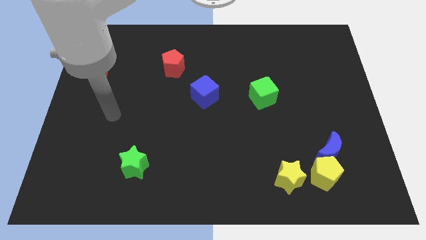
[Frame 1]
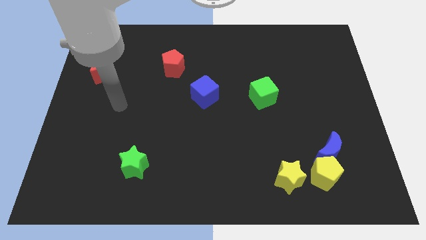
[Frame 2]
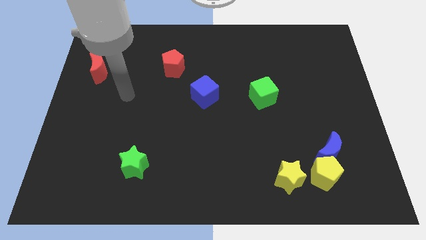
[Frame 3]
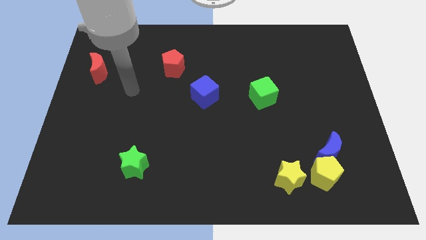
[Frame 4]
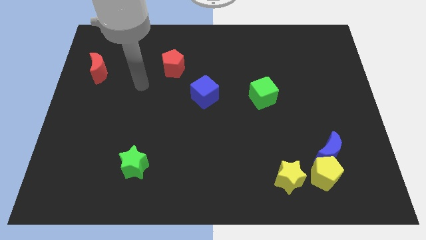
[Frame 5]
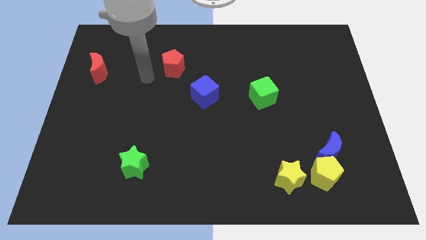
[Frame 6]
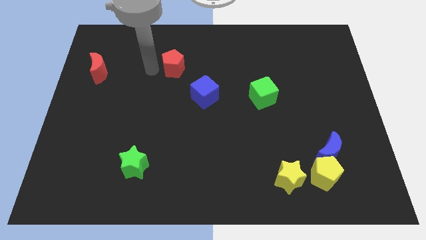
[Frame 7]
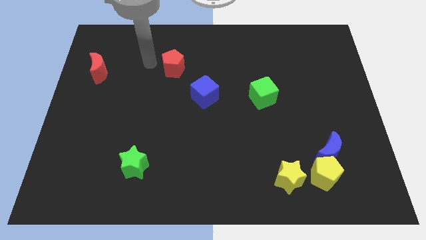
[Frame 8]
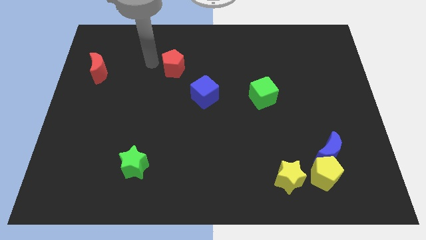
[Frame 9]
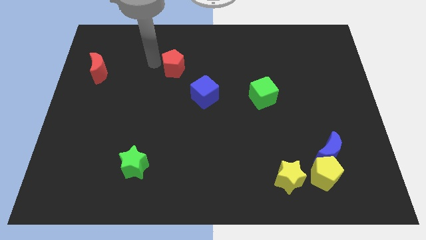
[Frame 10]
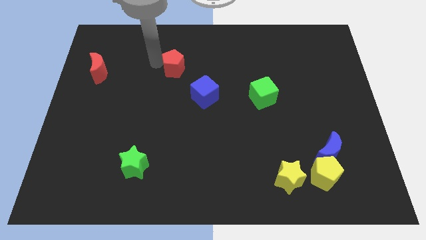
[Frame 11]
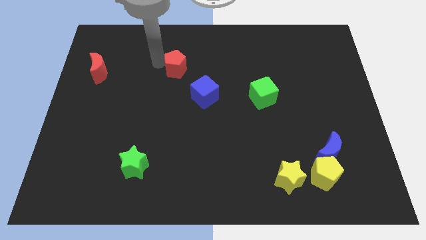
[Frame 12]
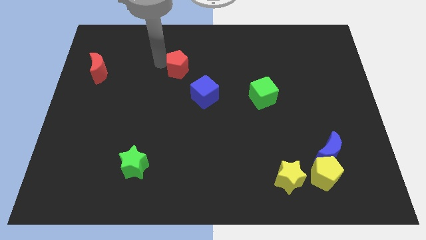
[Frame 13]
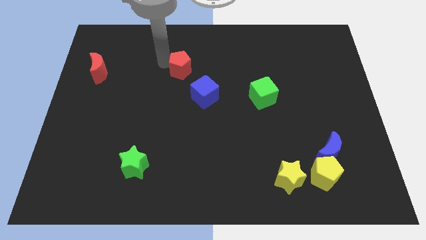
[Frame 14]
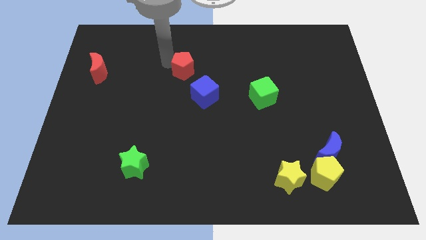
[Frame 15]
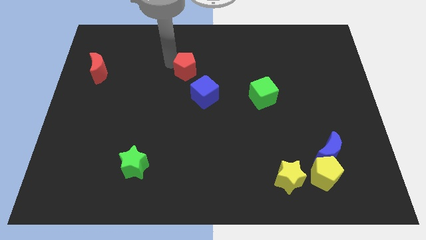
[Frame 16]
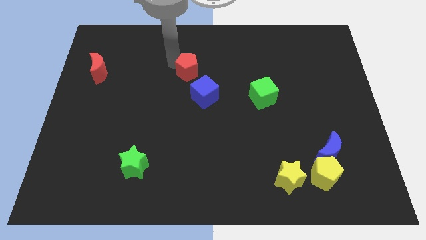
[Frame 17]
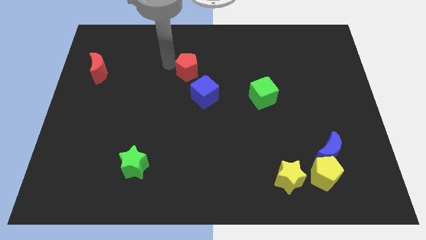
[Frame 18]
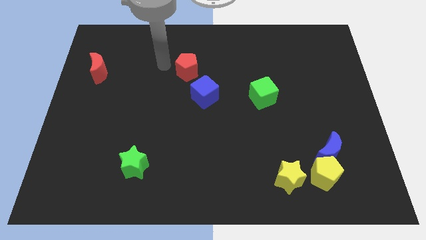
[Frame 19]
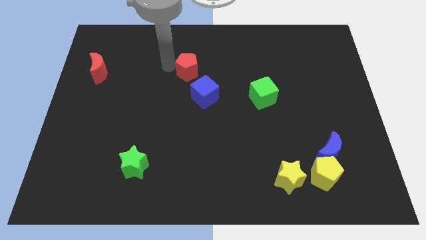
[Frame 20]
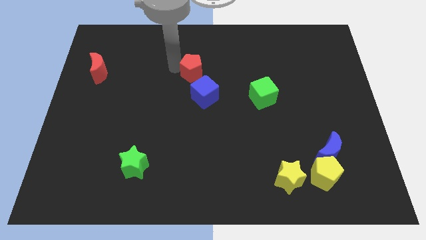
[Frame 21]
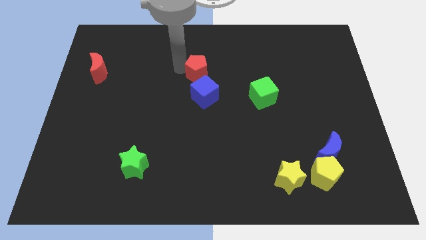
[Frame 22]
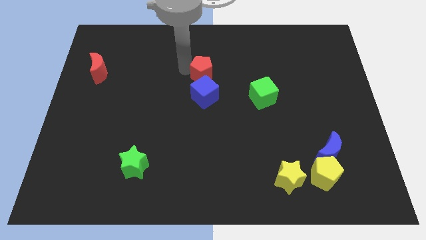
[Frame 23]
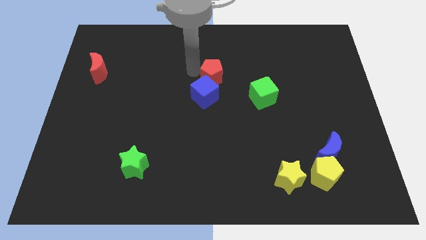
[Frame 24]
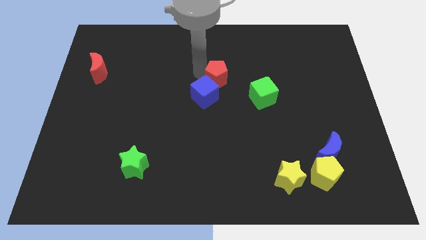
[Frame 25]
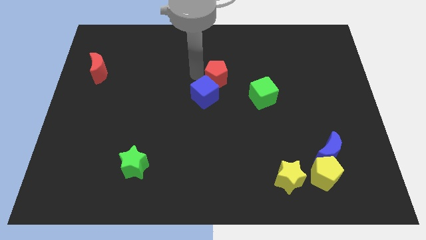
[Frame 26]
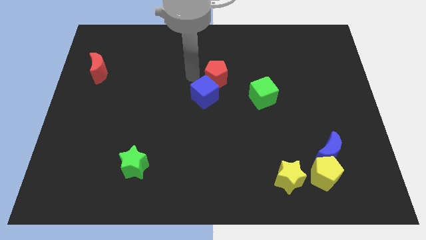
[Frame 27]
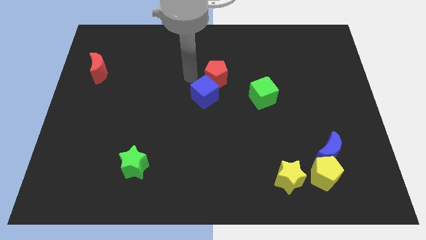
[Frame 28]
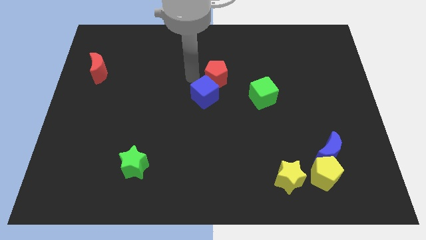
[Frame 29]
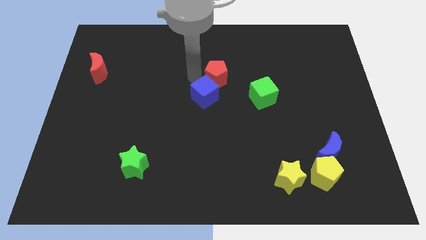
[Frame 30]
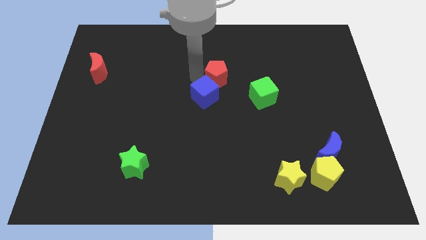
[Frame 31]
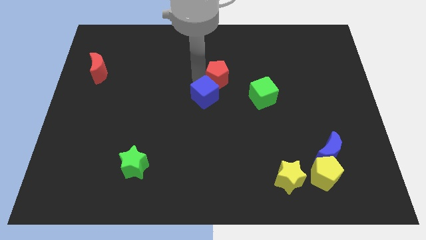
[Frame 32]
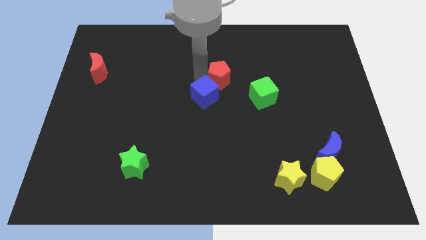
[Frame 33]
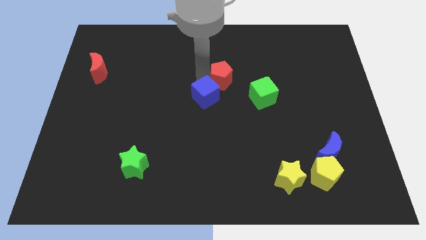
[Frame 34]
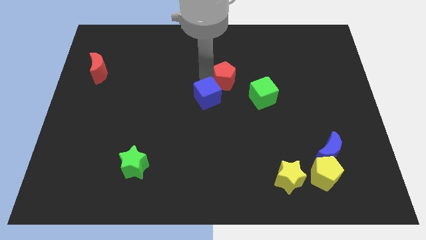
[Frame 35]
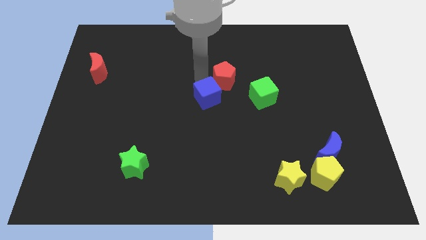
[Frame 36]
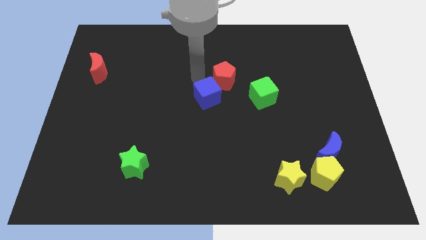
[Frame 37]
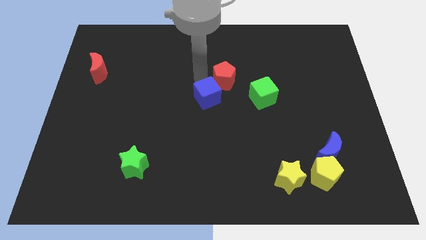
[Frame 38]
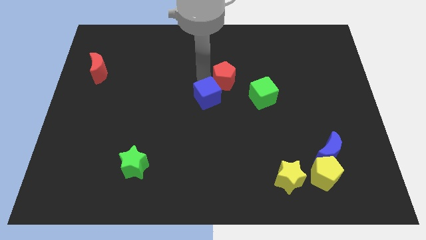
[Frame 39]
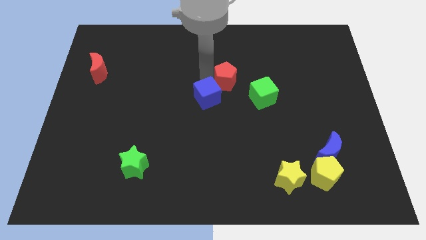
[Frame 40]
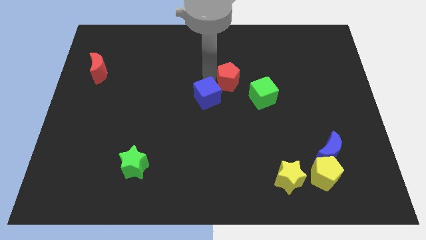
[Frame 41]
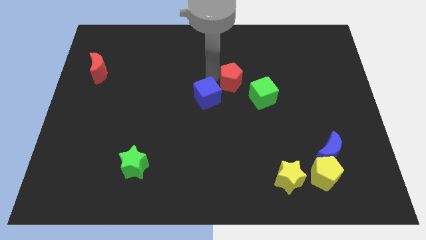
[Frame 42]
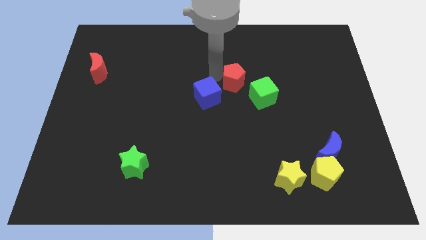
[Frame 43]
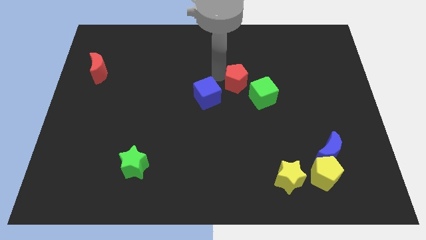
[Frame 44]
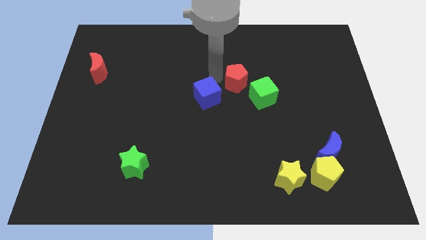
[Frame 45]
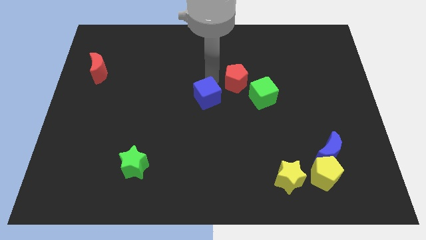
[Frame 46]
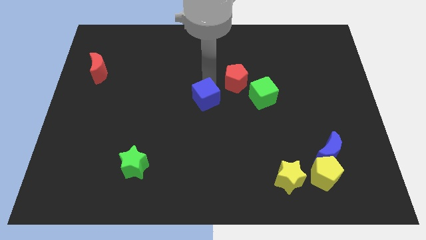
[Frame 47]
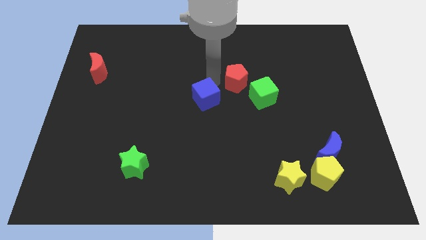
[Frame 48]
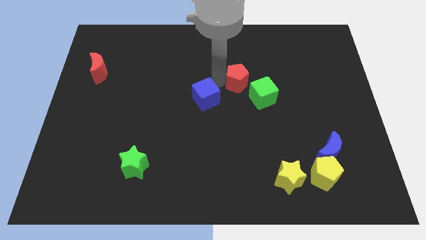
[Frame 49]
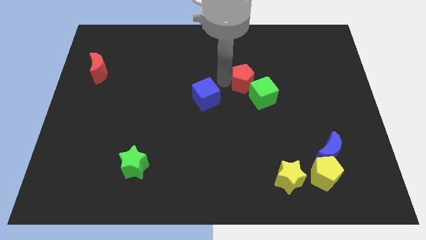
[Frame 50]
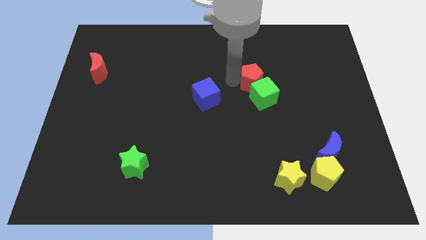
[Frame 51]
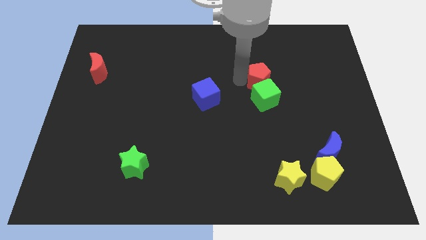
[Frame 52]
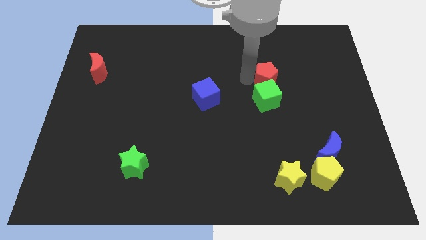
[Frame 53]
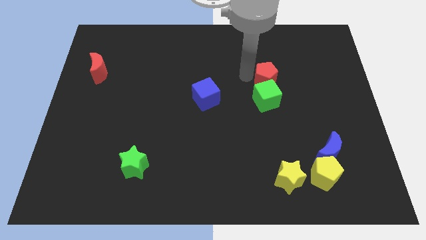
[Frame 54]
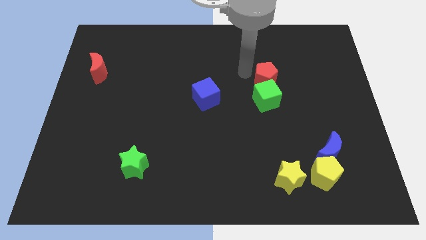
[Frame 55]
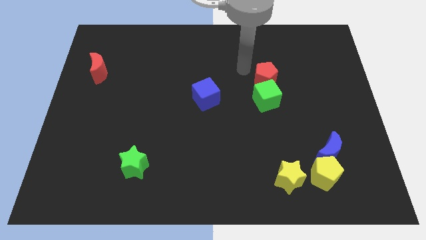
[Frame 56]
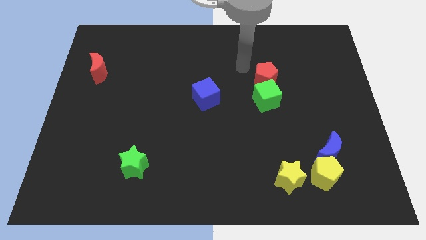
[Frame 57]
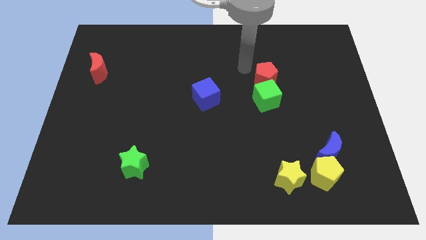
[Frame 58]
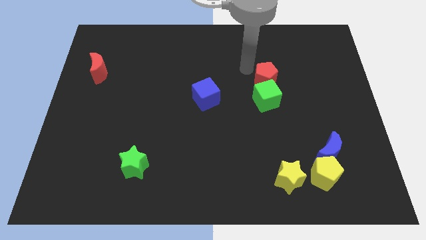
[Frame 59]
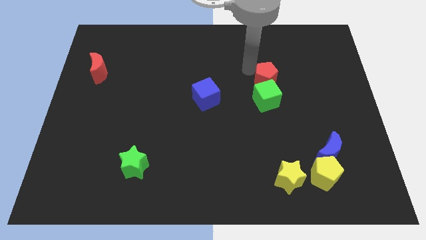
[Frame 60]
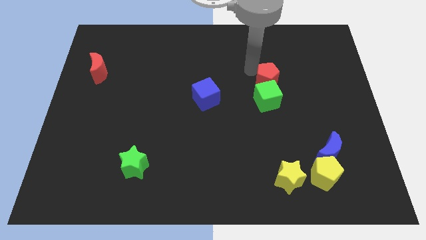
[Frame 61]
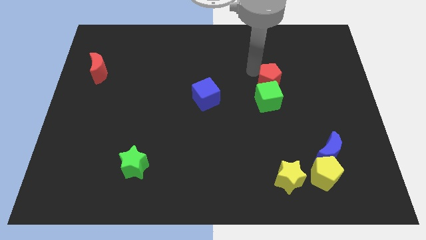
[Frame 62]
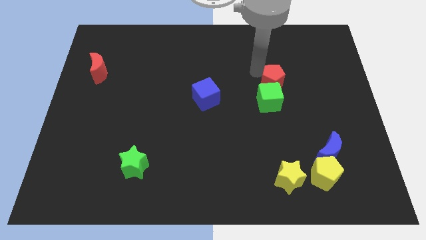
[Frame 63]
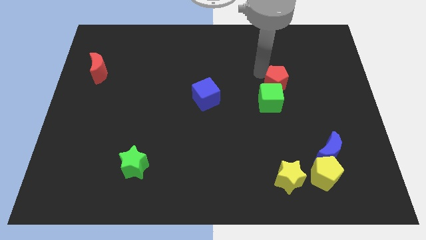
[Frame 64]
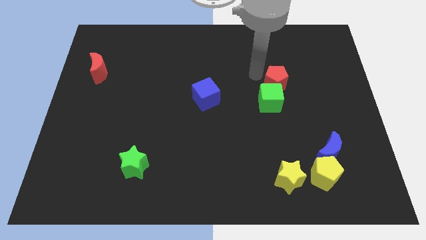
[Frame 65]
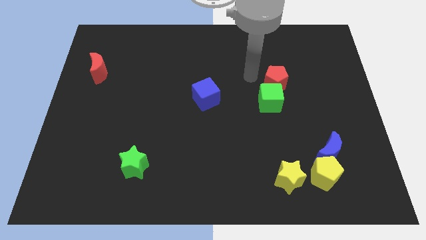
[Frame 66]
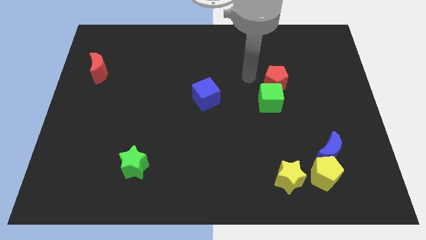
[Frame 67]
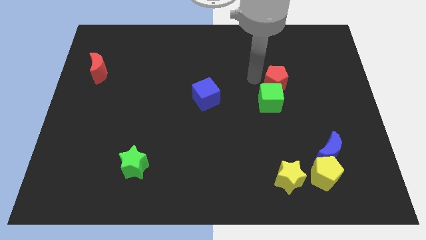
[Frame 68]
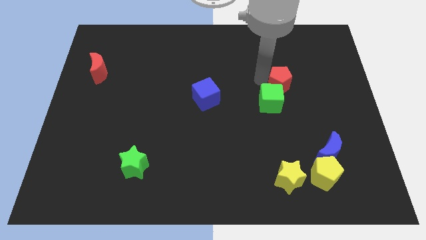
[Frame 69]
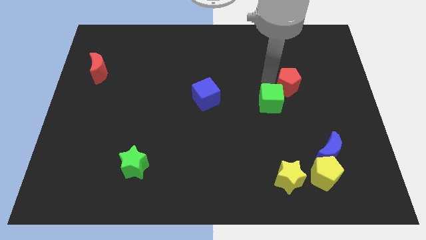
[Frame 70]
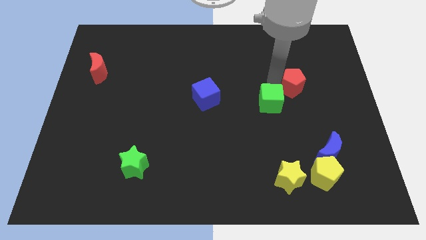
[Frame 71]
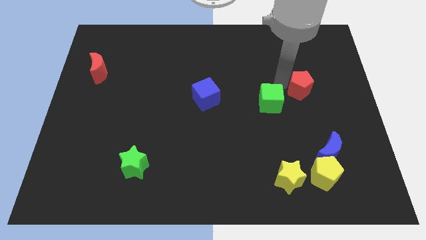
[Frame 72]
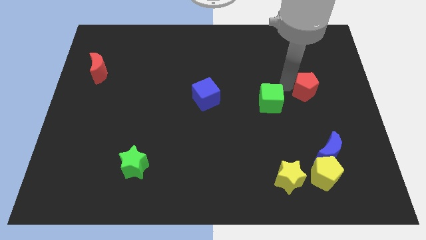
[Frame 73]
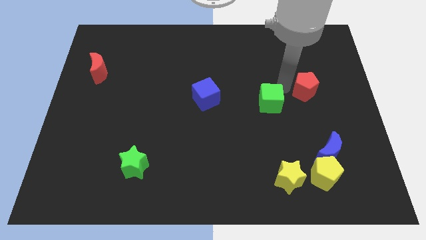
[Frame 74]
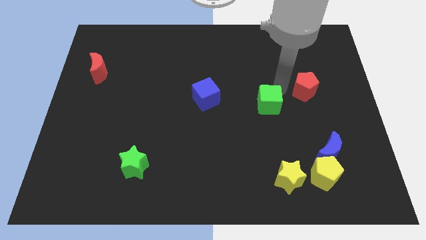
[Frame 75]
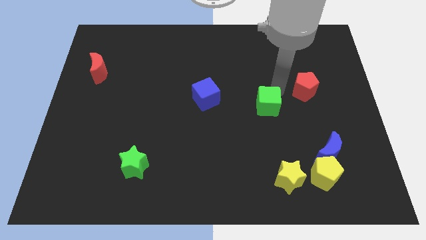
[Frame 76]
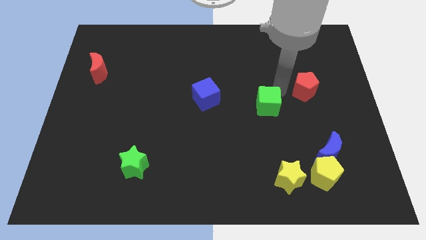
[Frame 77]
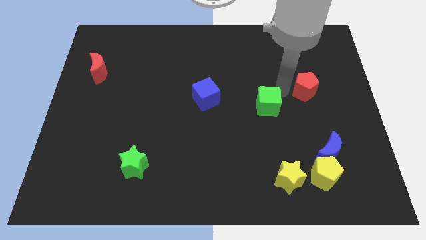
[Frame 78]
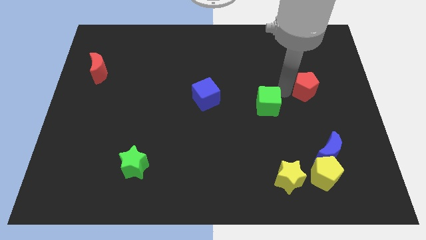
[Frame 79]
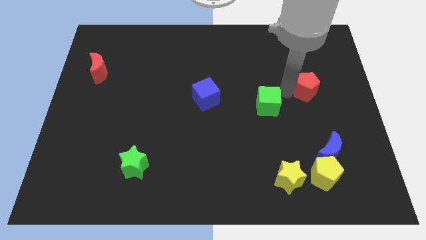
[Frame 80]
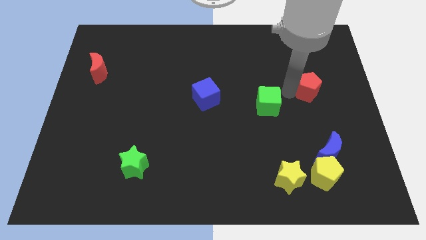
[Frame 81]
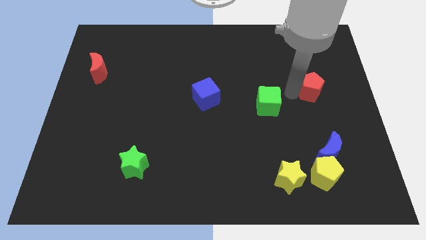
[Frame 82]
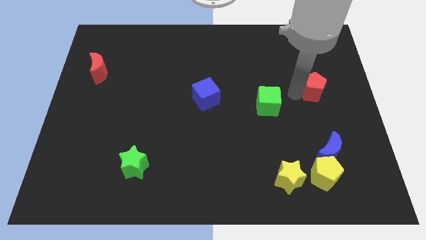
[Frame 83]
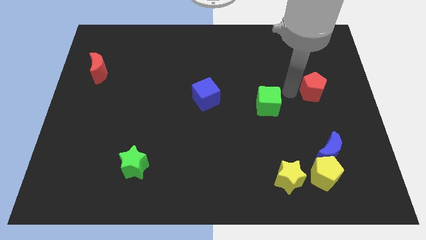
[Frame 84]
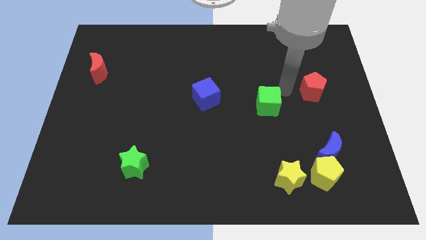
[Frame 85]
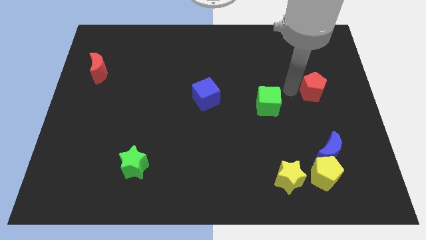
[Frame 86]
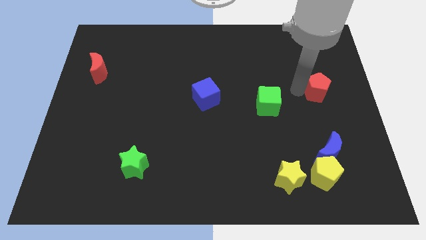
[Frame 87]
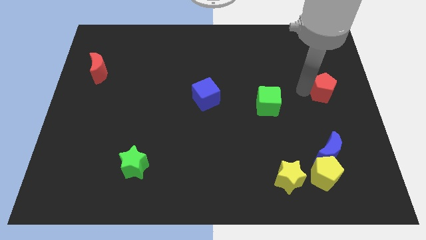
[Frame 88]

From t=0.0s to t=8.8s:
push the red pentagon to the right side of the board
